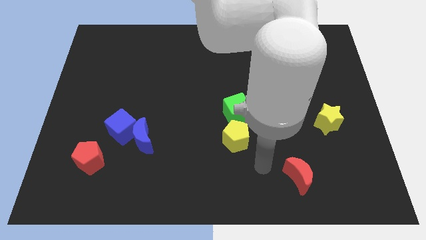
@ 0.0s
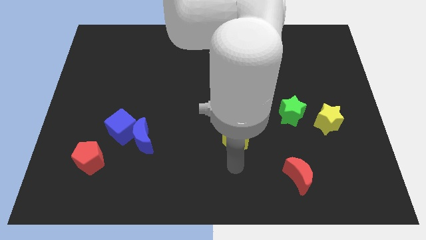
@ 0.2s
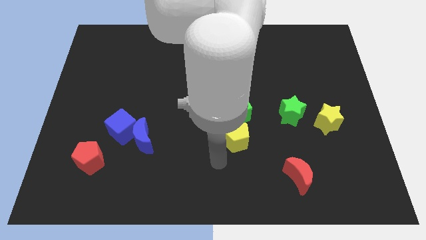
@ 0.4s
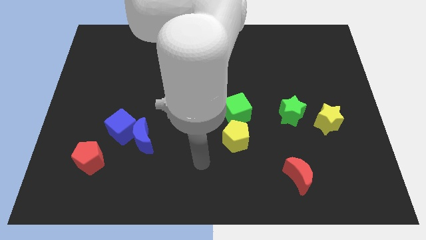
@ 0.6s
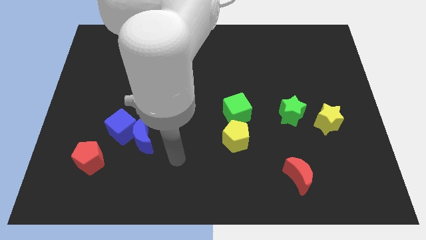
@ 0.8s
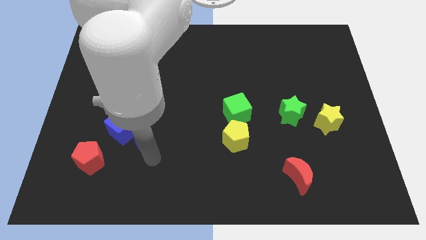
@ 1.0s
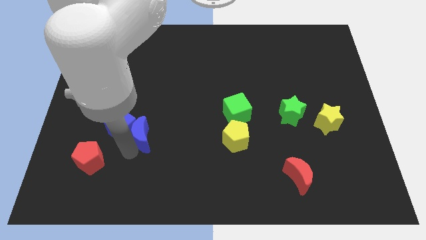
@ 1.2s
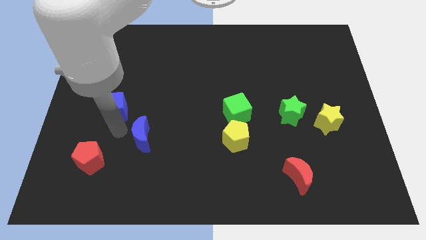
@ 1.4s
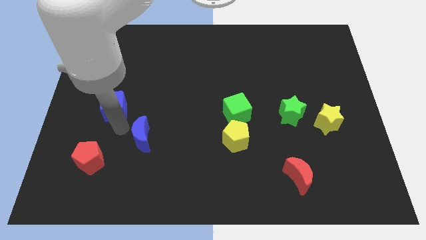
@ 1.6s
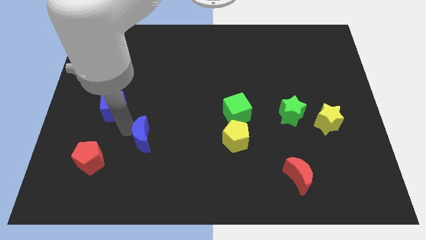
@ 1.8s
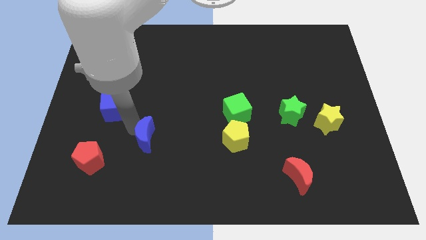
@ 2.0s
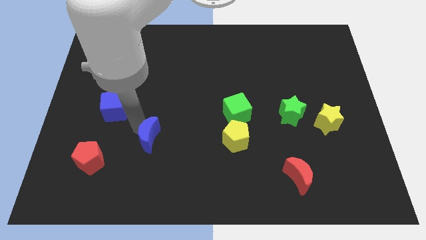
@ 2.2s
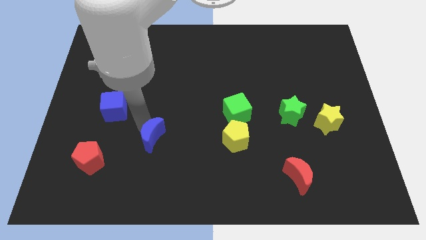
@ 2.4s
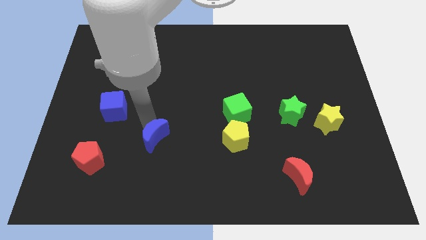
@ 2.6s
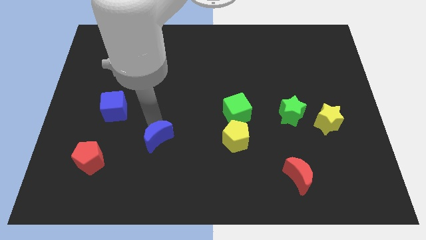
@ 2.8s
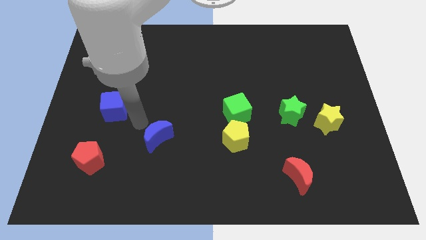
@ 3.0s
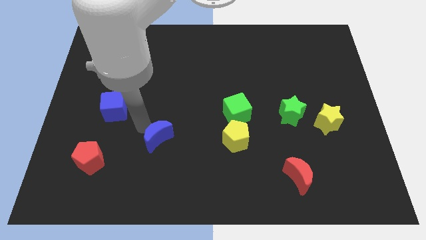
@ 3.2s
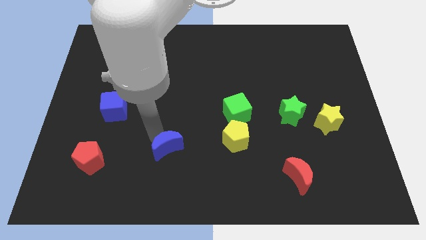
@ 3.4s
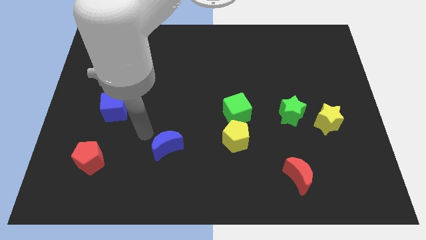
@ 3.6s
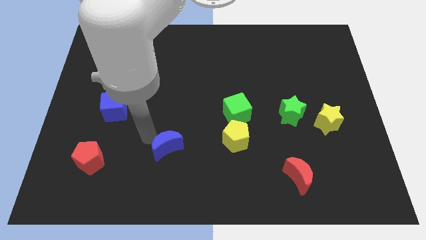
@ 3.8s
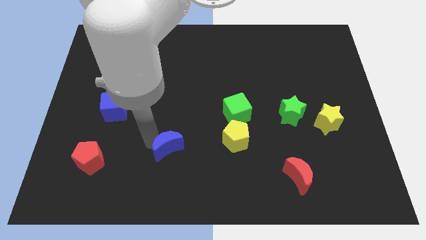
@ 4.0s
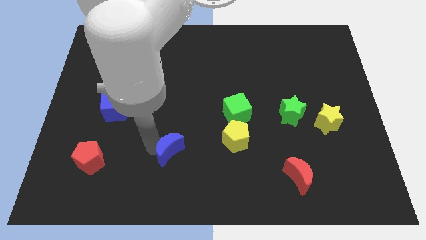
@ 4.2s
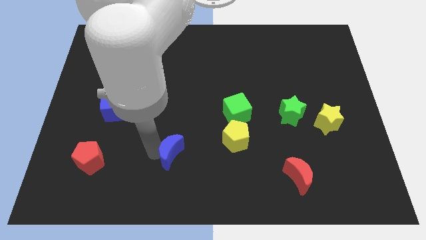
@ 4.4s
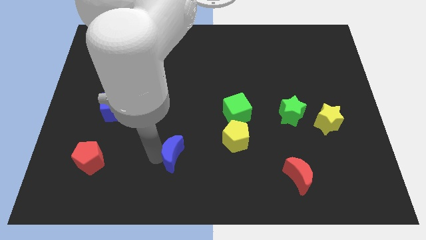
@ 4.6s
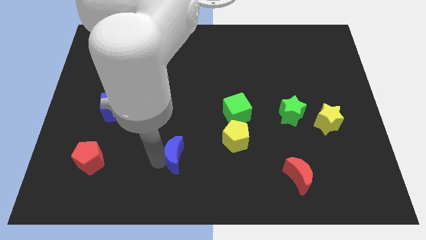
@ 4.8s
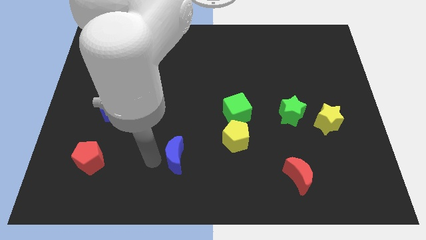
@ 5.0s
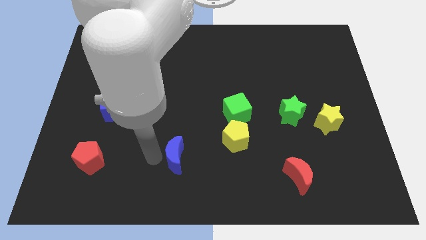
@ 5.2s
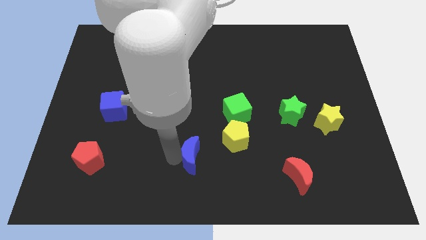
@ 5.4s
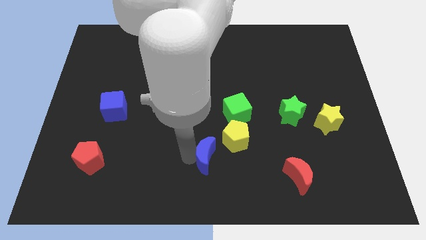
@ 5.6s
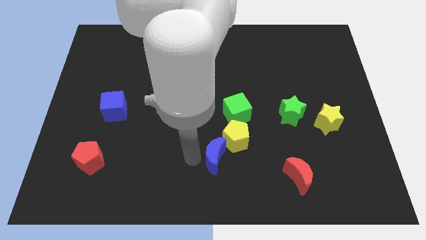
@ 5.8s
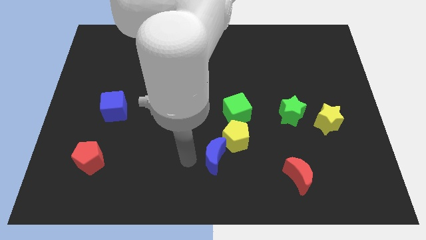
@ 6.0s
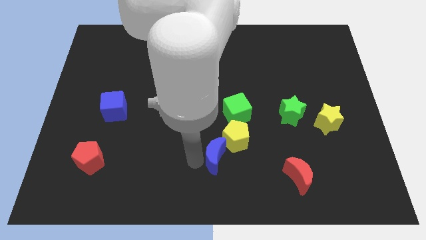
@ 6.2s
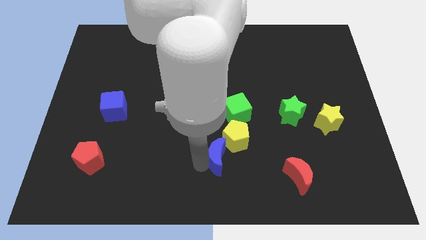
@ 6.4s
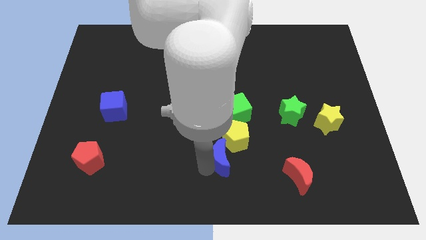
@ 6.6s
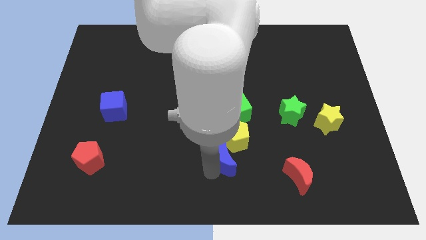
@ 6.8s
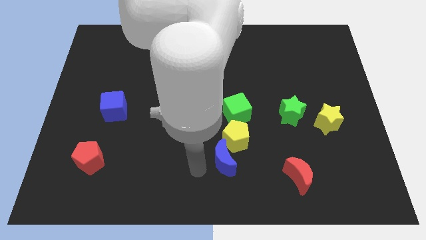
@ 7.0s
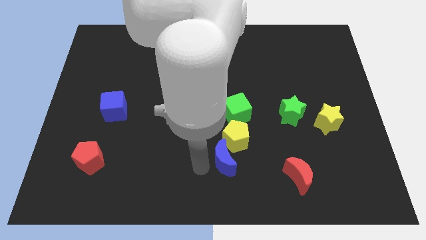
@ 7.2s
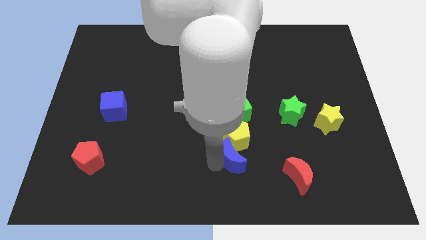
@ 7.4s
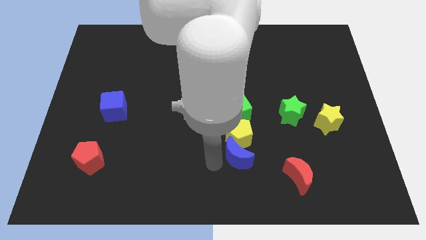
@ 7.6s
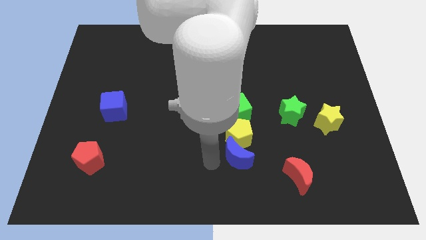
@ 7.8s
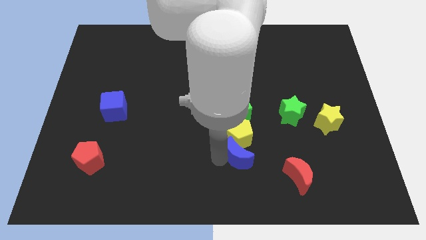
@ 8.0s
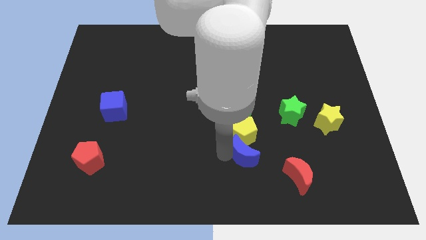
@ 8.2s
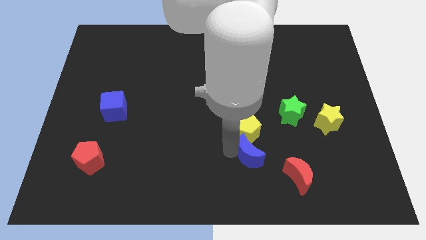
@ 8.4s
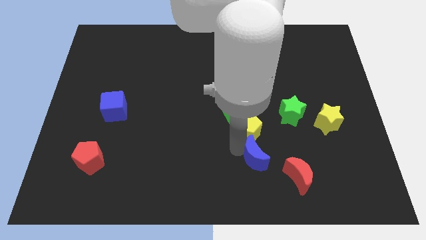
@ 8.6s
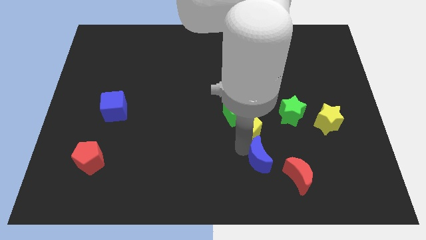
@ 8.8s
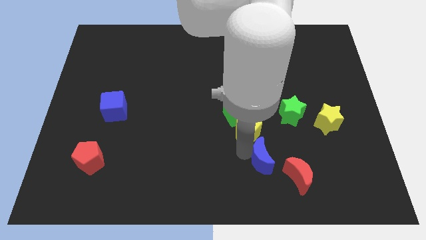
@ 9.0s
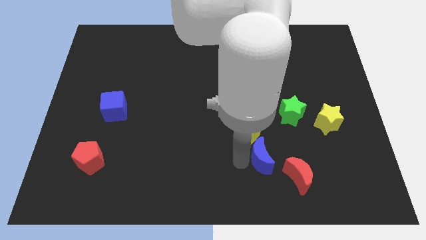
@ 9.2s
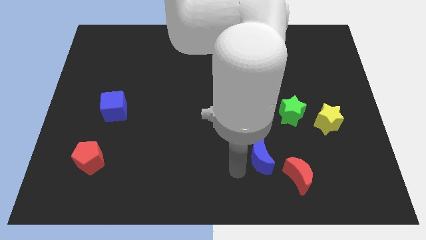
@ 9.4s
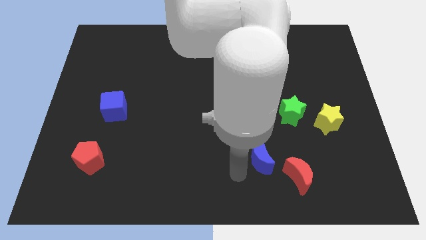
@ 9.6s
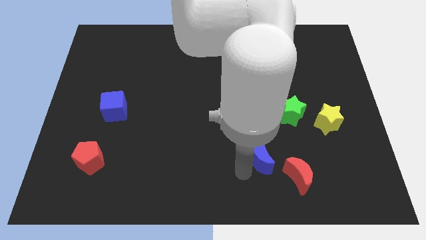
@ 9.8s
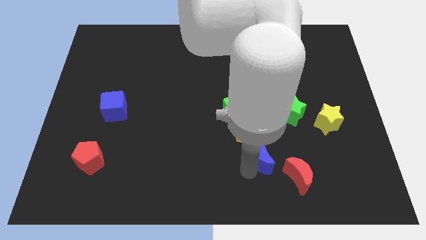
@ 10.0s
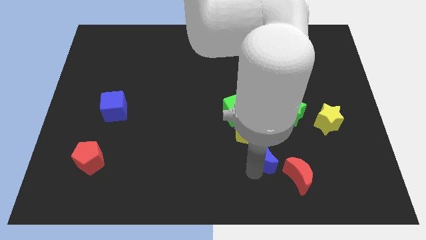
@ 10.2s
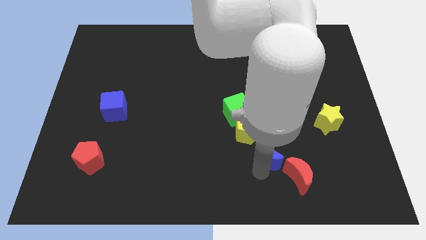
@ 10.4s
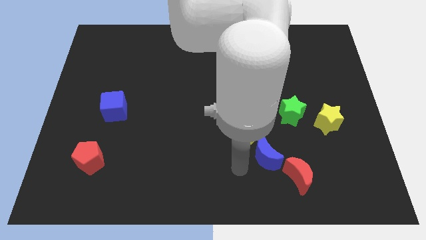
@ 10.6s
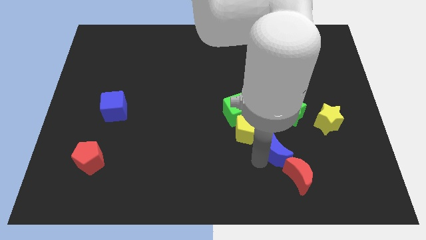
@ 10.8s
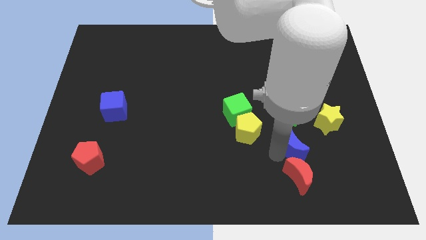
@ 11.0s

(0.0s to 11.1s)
push the blue moon diagonally down and to the left of the yellow star

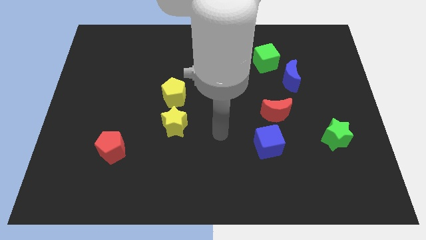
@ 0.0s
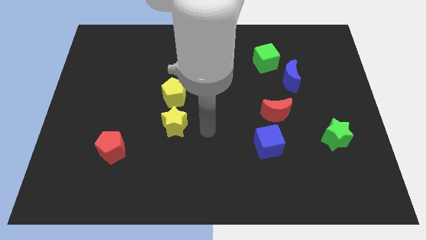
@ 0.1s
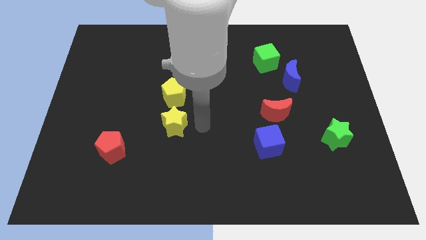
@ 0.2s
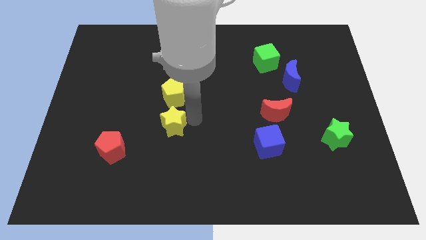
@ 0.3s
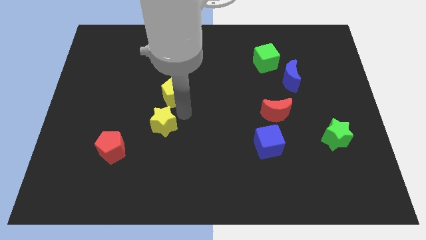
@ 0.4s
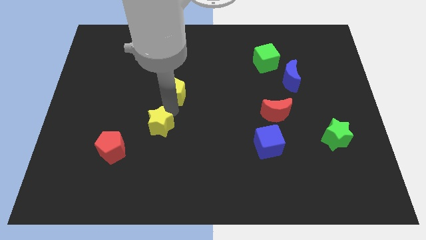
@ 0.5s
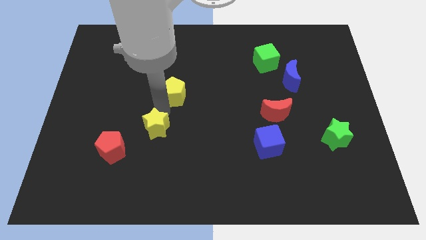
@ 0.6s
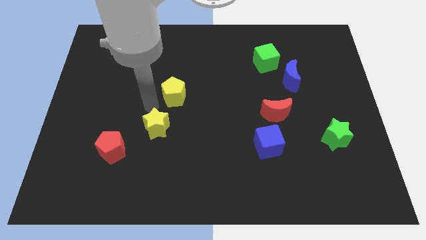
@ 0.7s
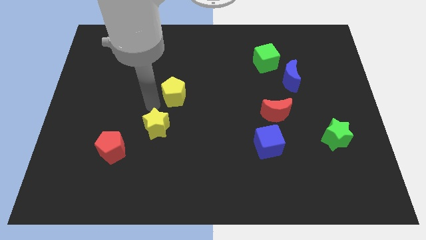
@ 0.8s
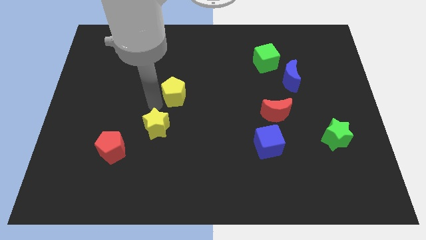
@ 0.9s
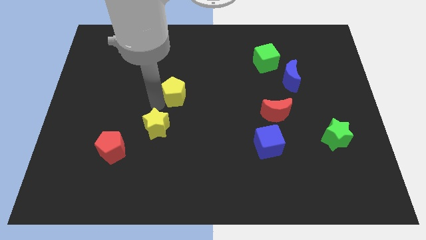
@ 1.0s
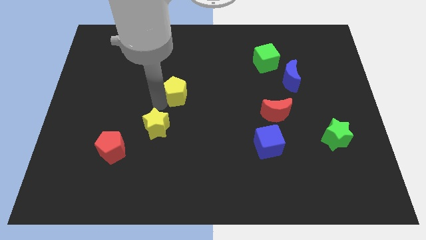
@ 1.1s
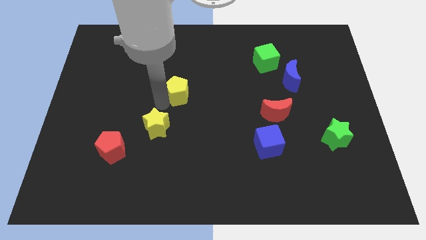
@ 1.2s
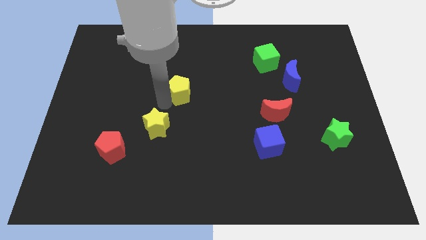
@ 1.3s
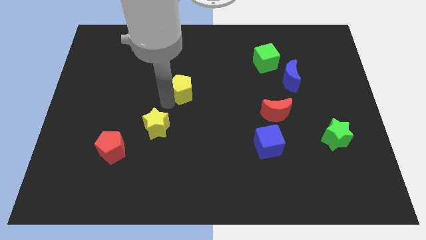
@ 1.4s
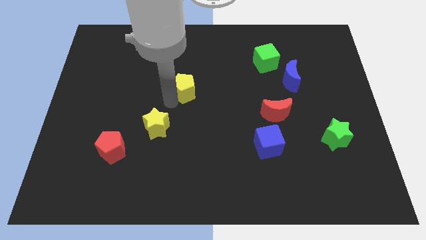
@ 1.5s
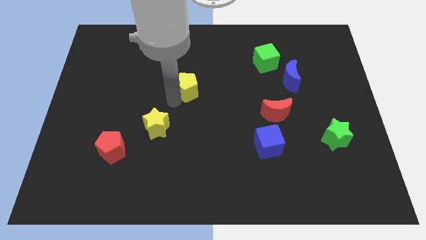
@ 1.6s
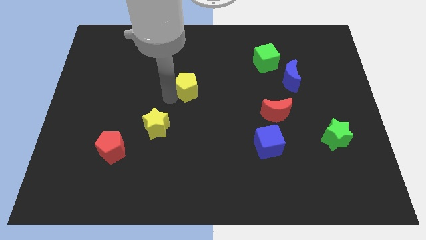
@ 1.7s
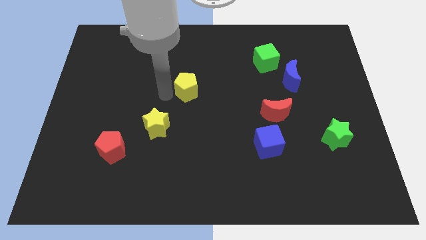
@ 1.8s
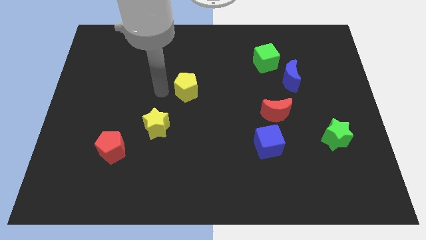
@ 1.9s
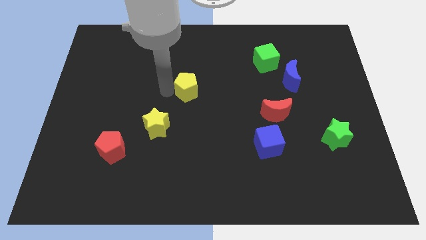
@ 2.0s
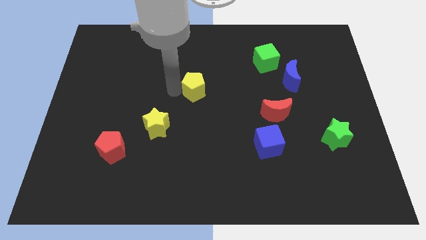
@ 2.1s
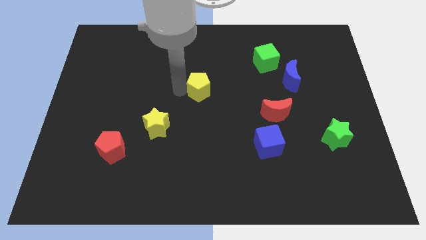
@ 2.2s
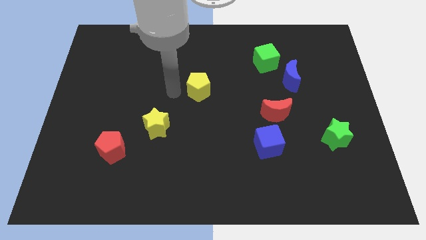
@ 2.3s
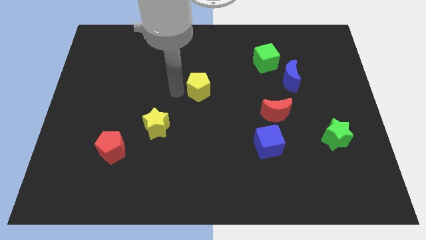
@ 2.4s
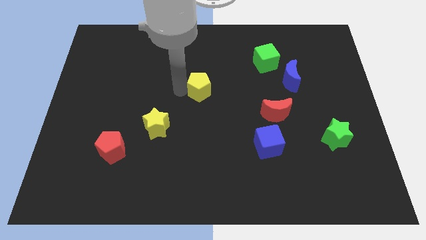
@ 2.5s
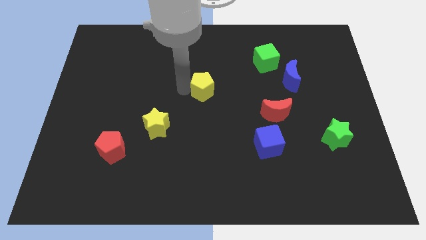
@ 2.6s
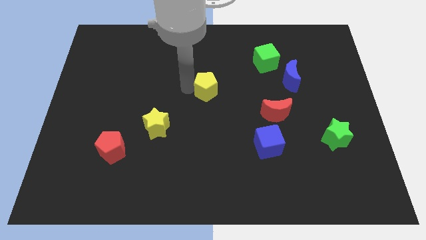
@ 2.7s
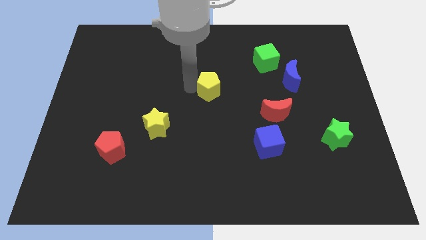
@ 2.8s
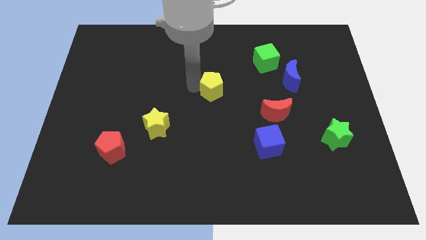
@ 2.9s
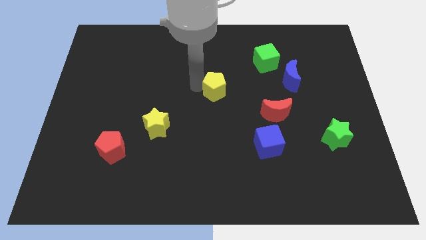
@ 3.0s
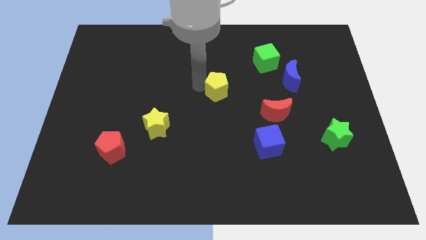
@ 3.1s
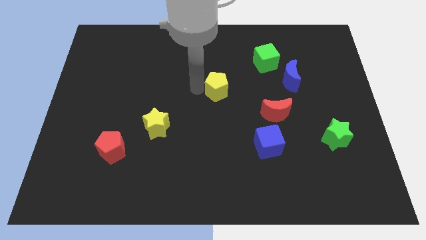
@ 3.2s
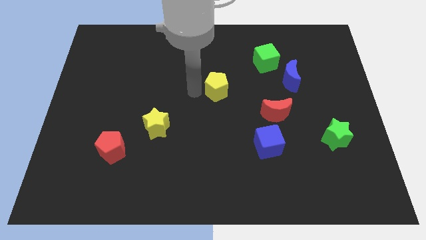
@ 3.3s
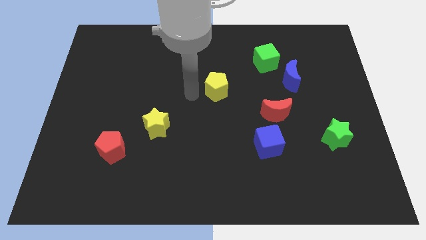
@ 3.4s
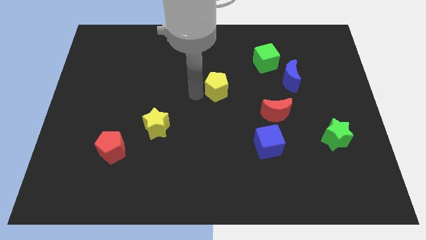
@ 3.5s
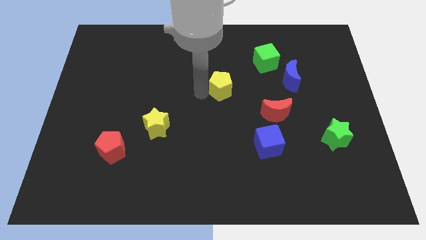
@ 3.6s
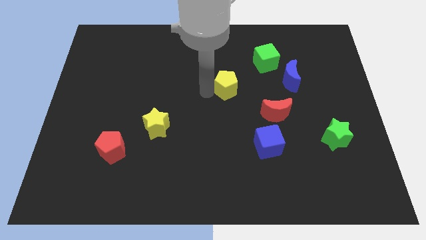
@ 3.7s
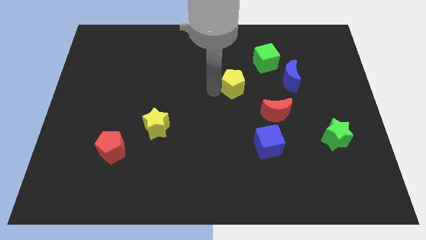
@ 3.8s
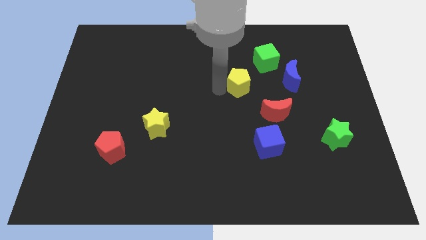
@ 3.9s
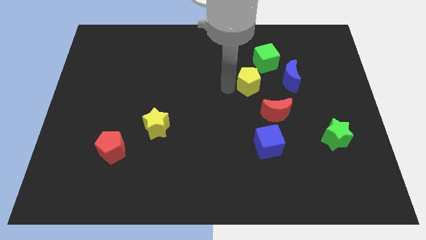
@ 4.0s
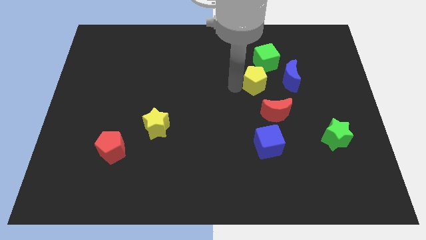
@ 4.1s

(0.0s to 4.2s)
put the yellow pentagon to the top of the red moon
